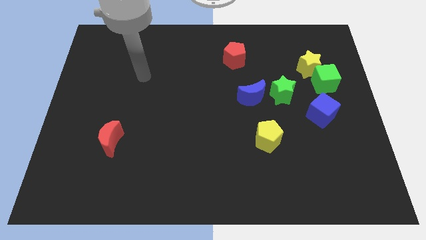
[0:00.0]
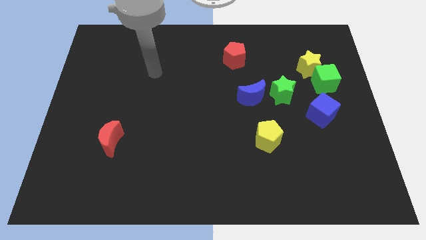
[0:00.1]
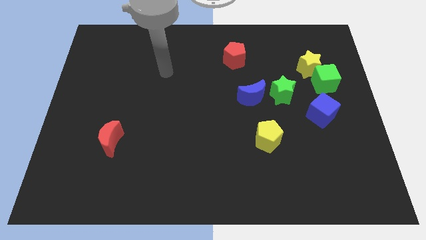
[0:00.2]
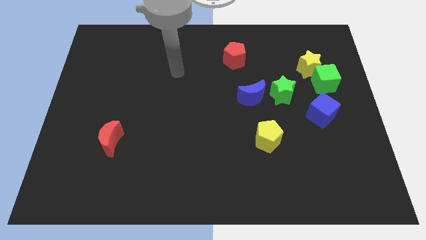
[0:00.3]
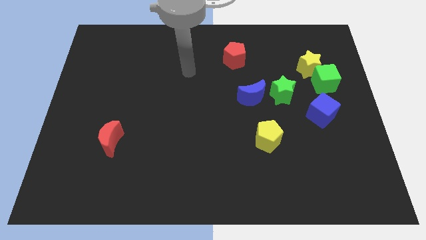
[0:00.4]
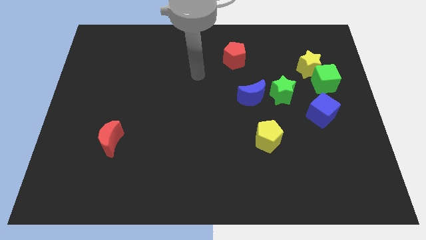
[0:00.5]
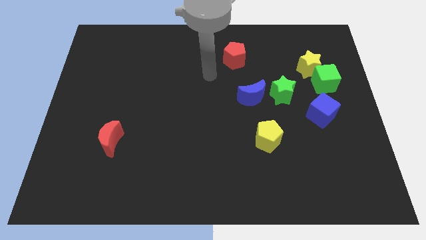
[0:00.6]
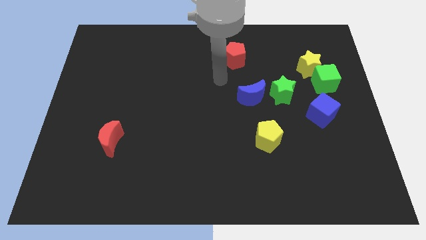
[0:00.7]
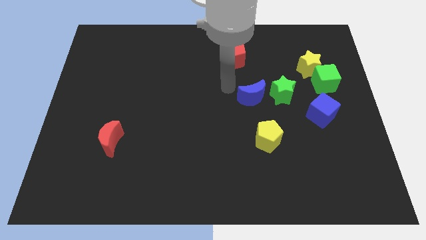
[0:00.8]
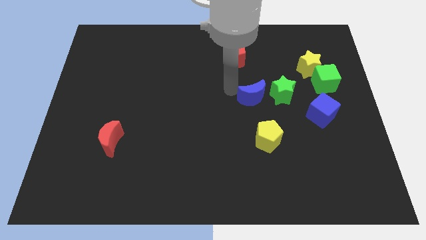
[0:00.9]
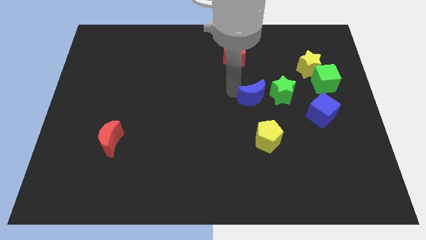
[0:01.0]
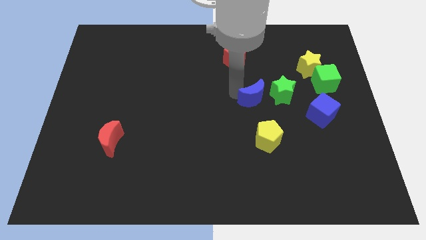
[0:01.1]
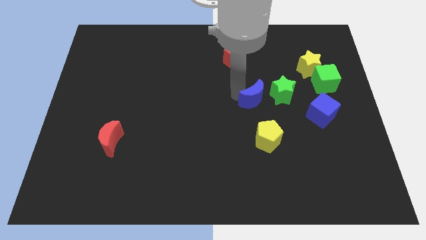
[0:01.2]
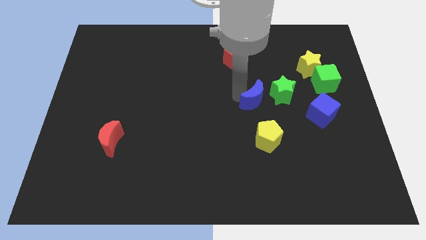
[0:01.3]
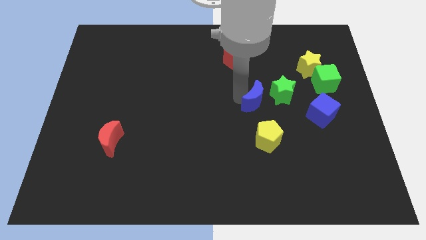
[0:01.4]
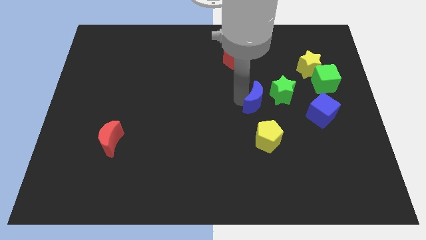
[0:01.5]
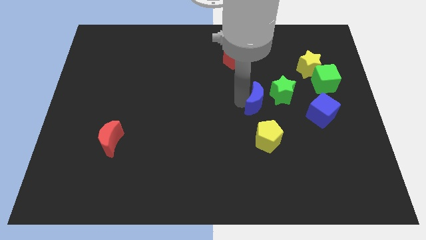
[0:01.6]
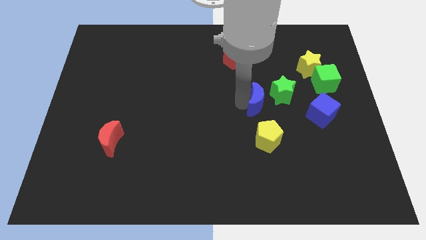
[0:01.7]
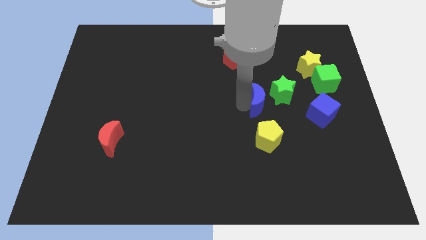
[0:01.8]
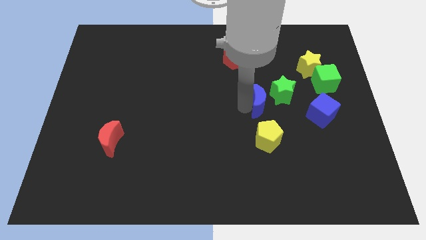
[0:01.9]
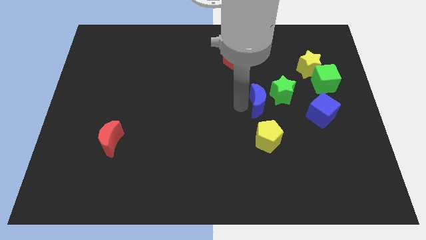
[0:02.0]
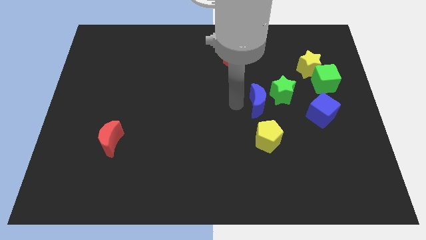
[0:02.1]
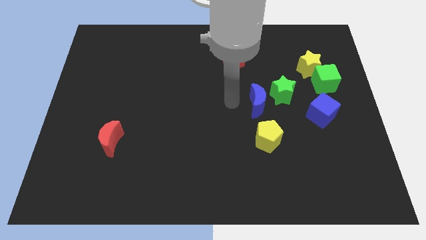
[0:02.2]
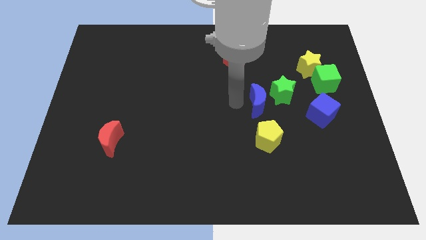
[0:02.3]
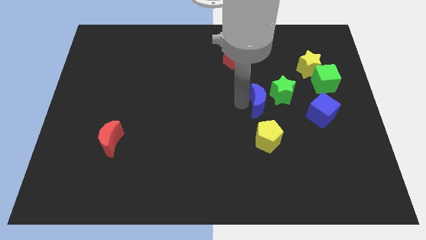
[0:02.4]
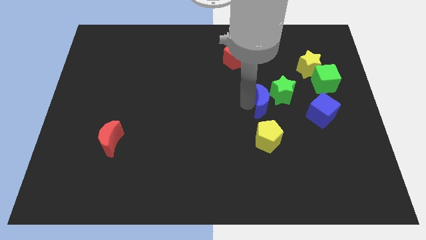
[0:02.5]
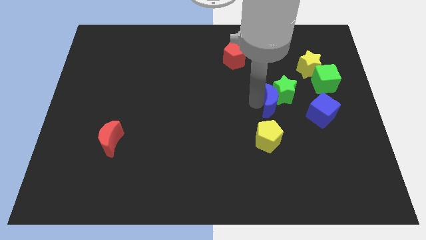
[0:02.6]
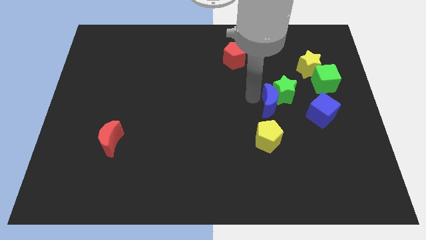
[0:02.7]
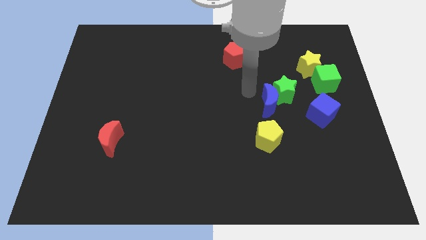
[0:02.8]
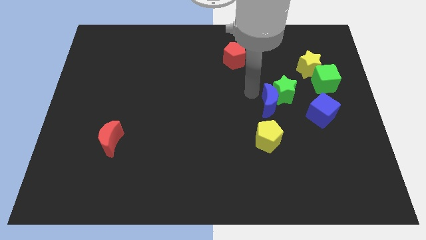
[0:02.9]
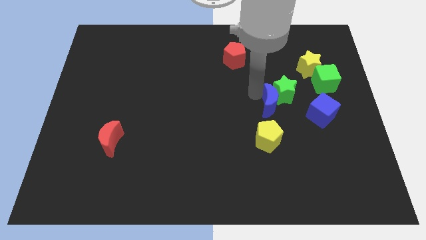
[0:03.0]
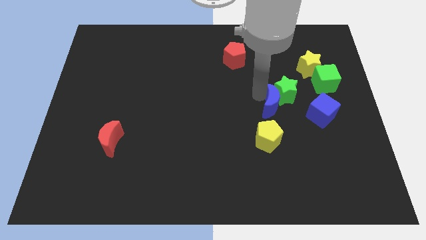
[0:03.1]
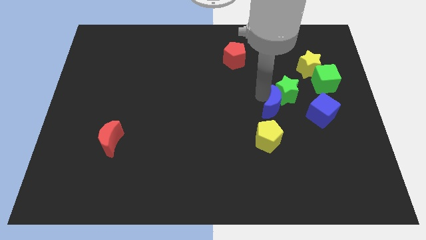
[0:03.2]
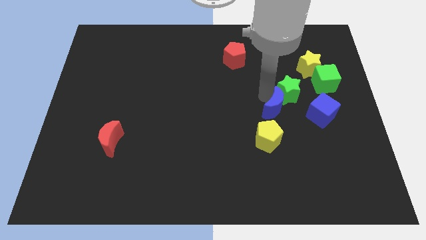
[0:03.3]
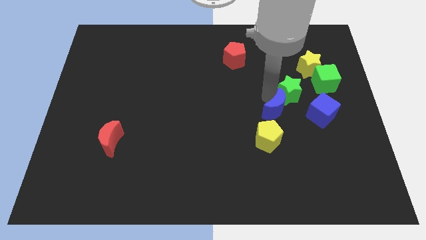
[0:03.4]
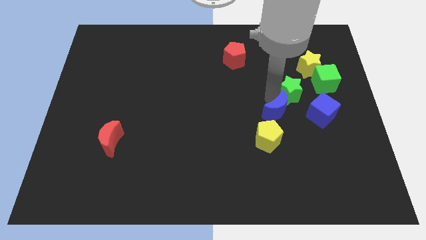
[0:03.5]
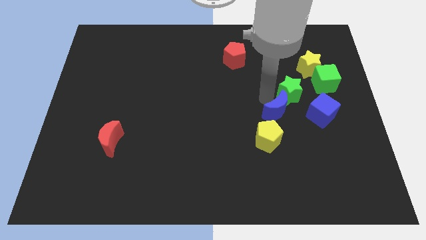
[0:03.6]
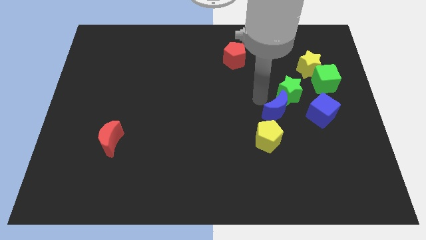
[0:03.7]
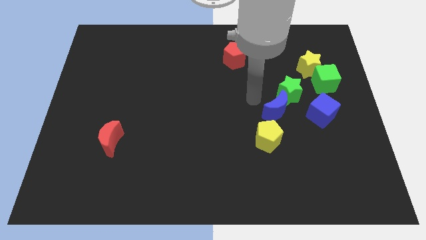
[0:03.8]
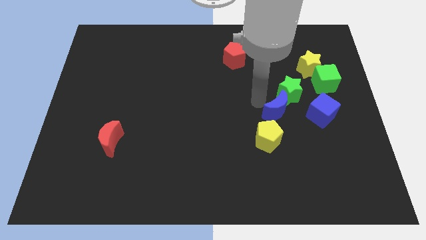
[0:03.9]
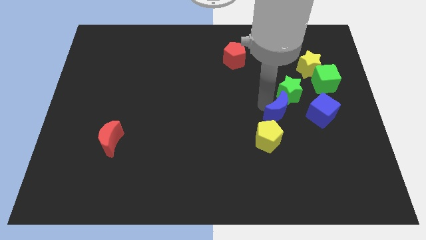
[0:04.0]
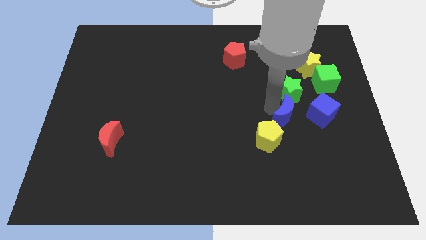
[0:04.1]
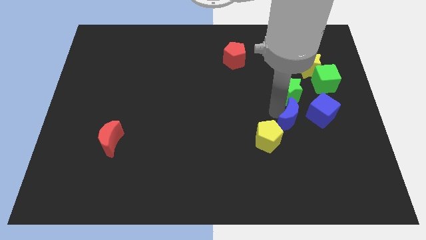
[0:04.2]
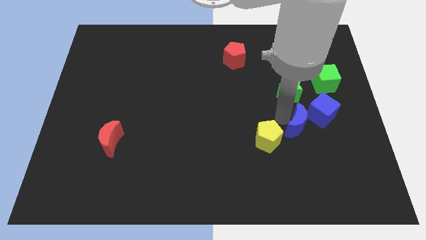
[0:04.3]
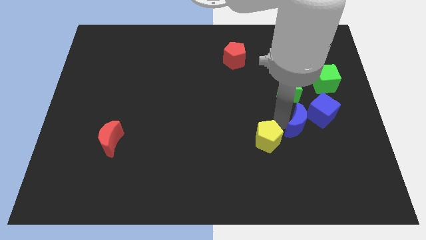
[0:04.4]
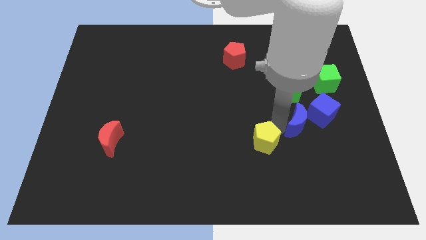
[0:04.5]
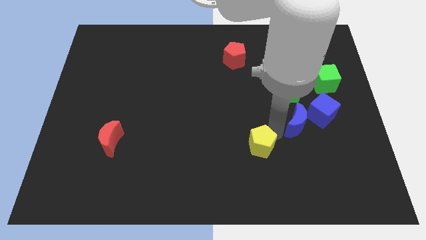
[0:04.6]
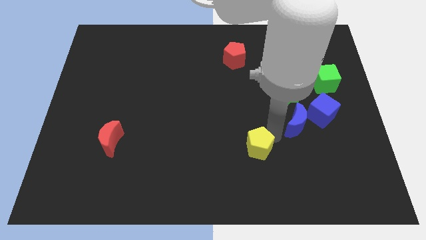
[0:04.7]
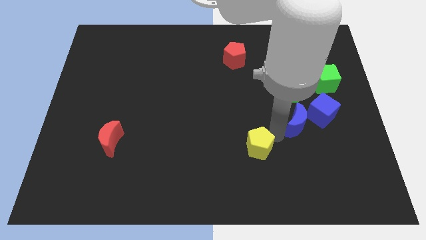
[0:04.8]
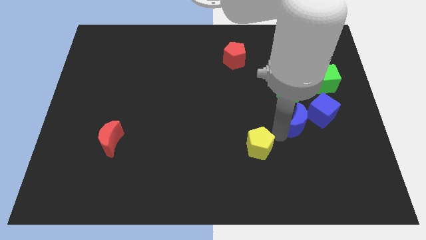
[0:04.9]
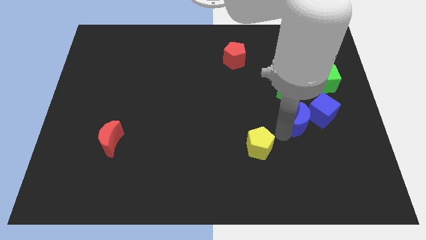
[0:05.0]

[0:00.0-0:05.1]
slide the blue moon to the blue cube

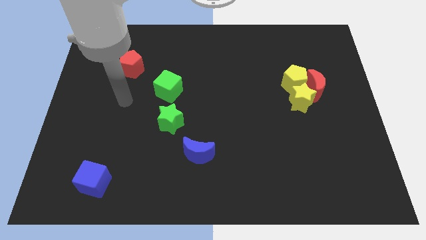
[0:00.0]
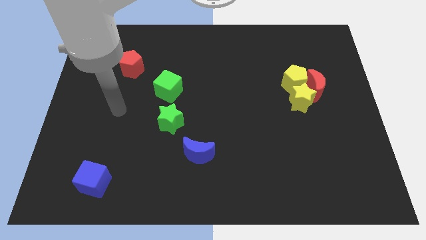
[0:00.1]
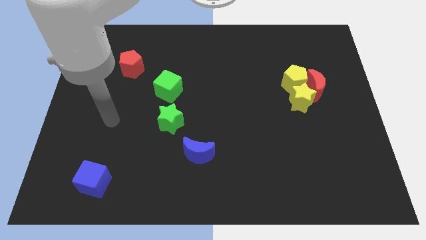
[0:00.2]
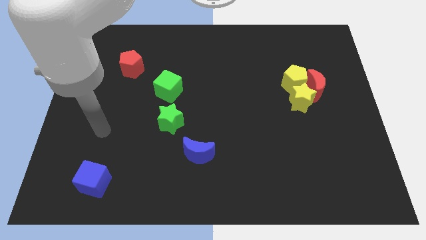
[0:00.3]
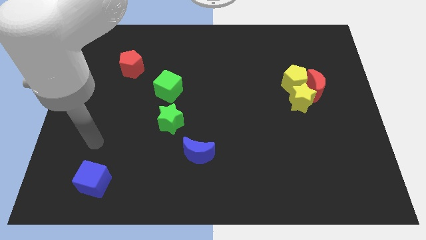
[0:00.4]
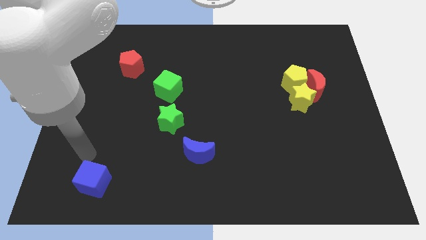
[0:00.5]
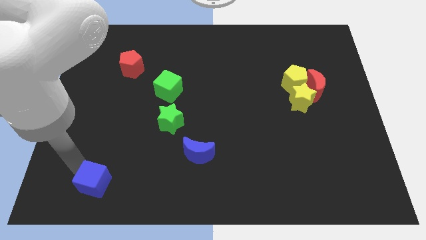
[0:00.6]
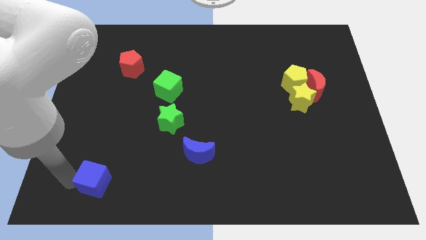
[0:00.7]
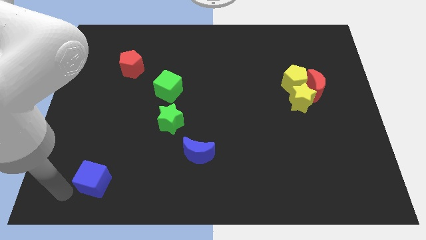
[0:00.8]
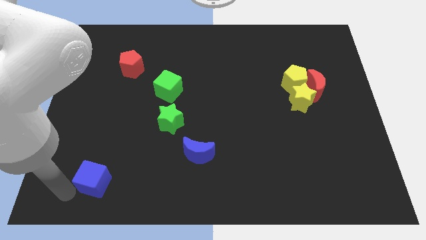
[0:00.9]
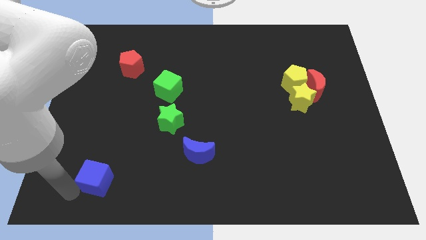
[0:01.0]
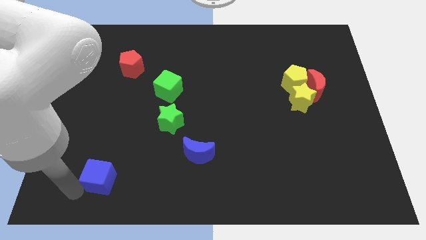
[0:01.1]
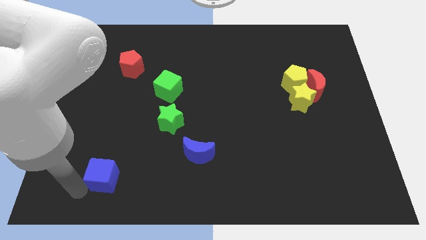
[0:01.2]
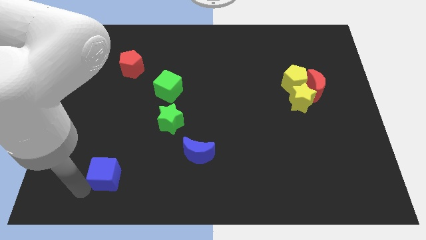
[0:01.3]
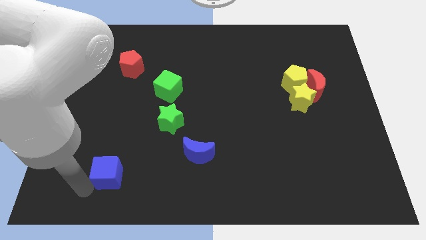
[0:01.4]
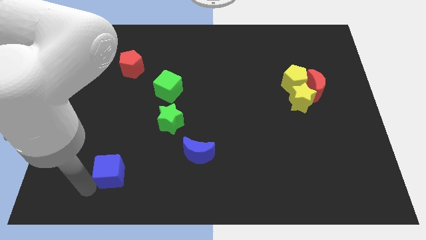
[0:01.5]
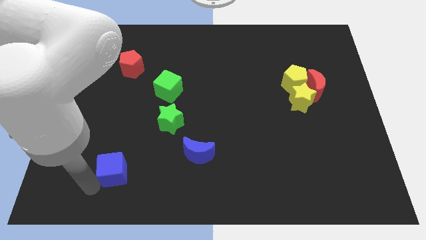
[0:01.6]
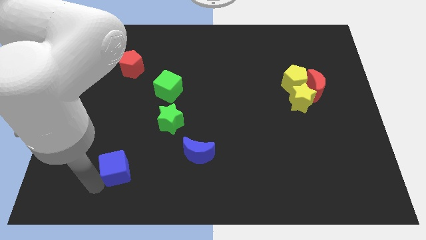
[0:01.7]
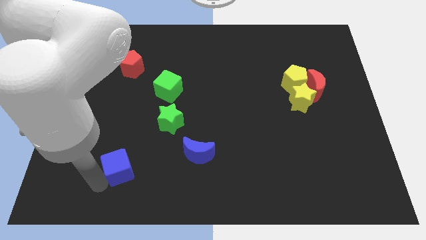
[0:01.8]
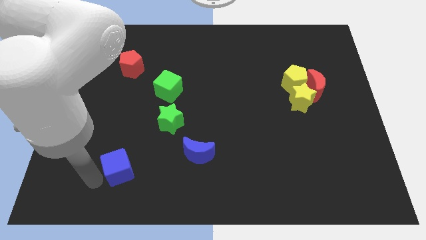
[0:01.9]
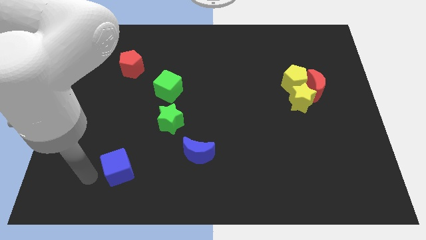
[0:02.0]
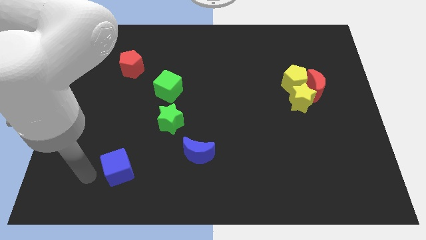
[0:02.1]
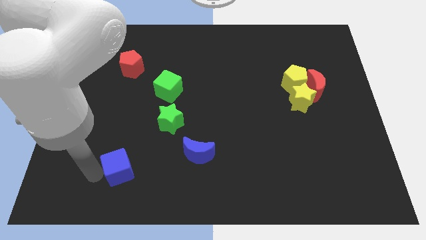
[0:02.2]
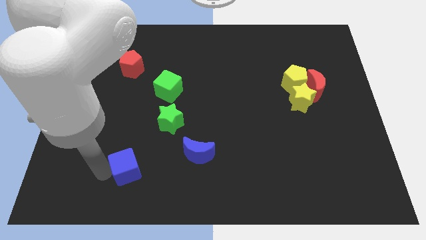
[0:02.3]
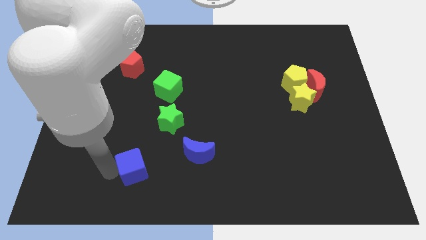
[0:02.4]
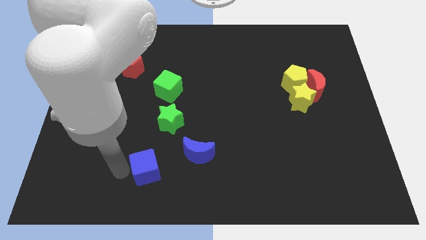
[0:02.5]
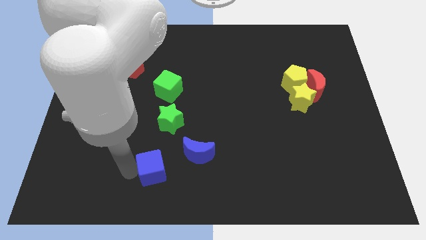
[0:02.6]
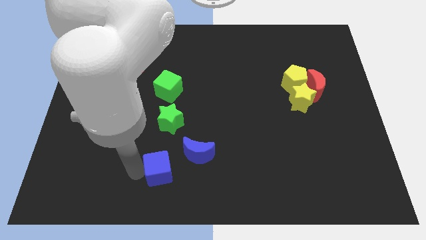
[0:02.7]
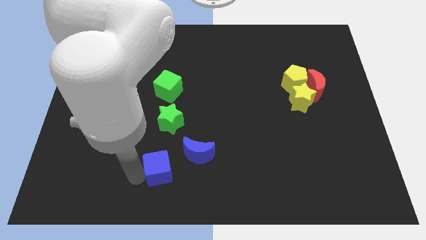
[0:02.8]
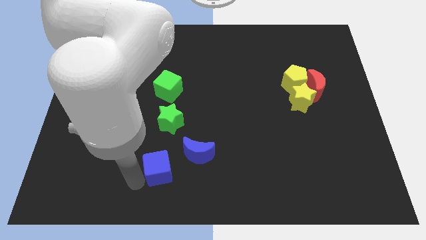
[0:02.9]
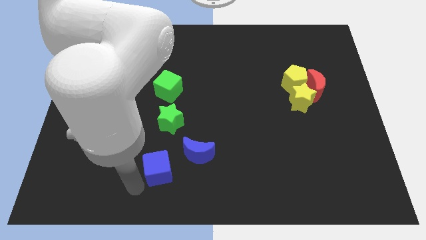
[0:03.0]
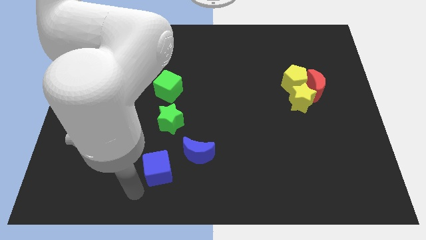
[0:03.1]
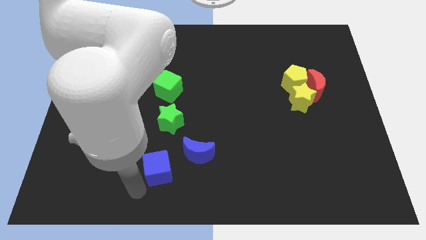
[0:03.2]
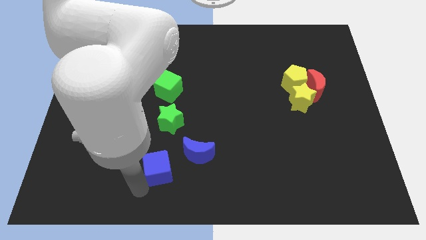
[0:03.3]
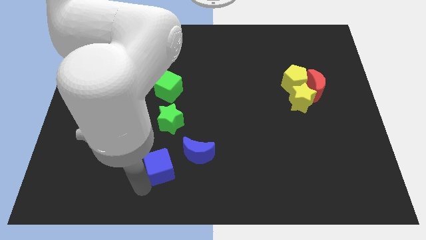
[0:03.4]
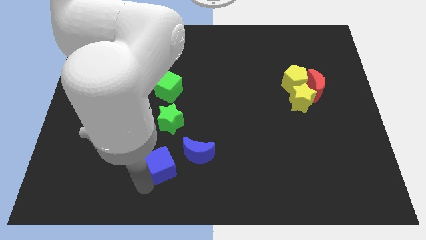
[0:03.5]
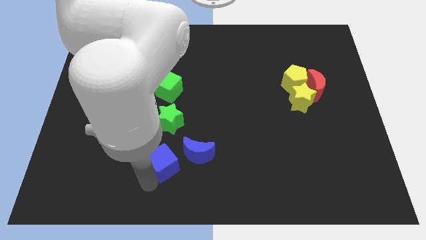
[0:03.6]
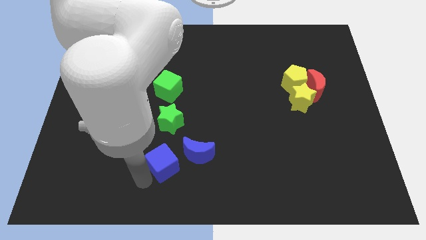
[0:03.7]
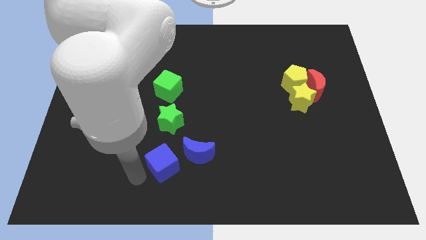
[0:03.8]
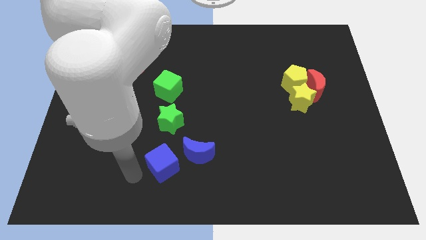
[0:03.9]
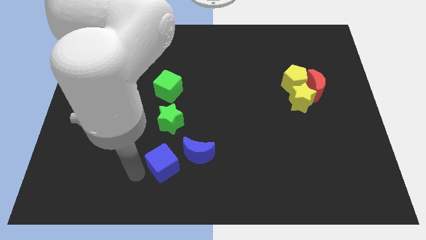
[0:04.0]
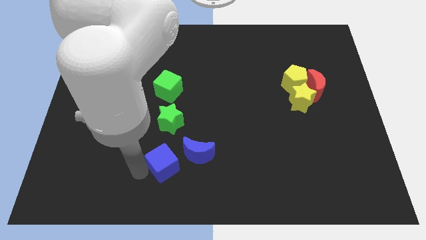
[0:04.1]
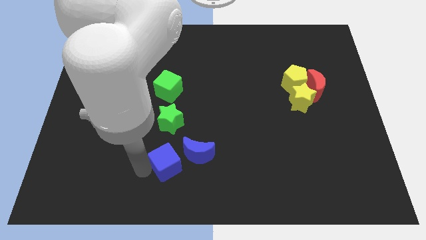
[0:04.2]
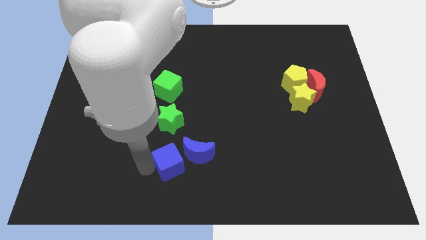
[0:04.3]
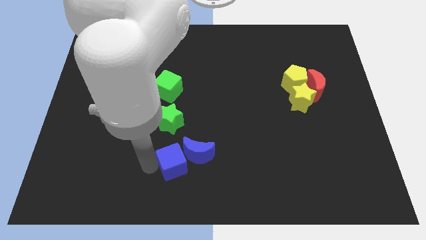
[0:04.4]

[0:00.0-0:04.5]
put the blue cube to the blue moon
